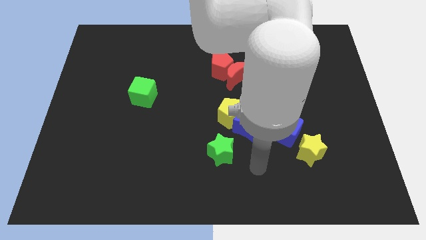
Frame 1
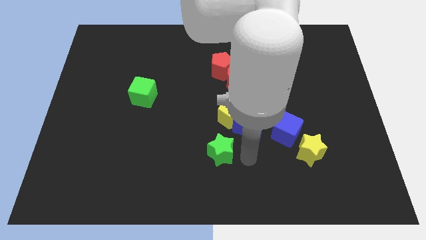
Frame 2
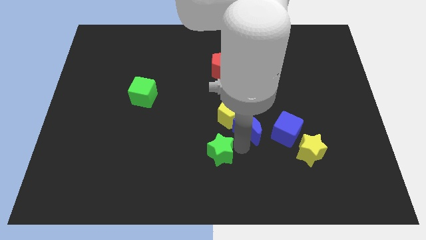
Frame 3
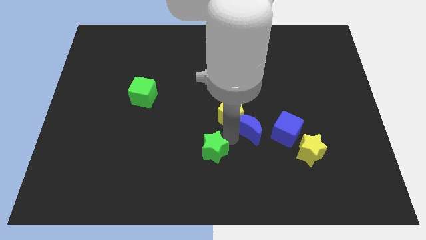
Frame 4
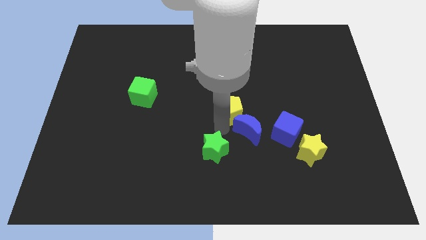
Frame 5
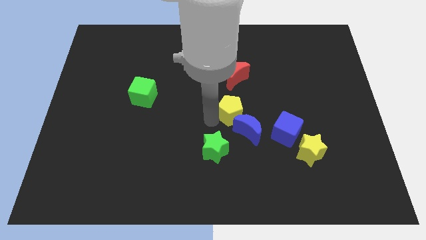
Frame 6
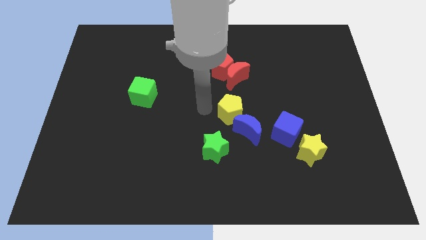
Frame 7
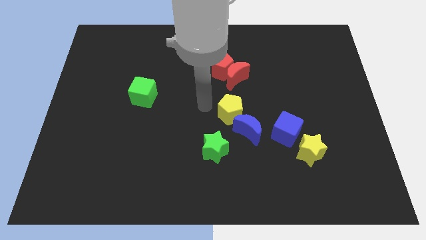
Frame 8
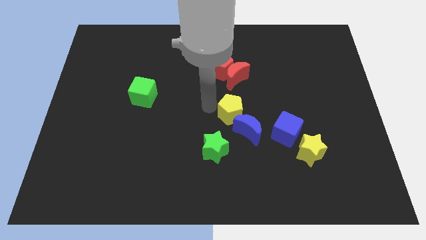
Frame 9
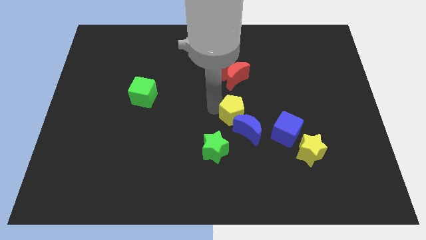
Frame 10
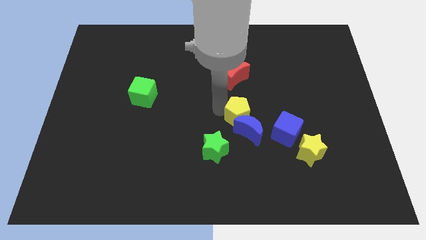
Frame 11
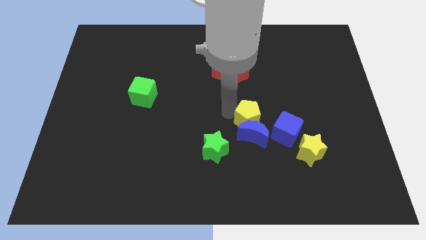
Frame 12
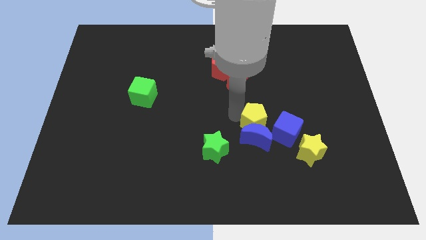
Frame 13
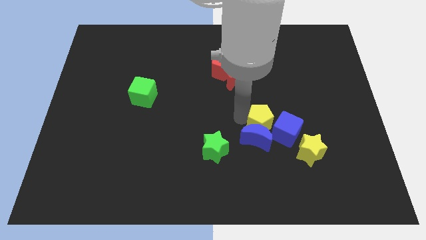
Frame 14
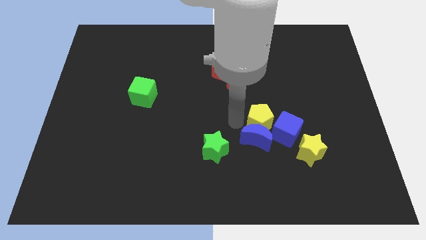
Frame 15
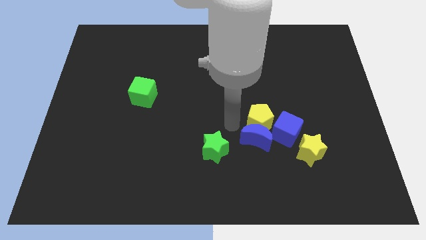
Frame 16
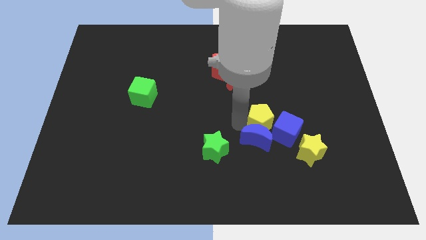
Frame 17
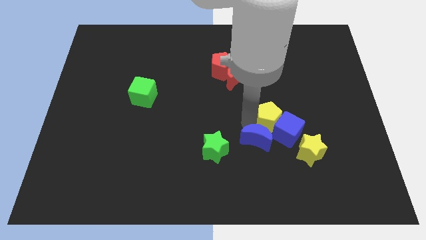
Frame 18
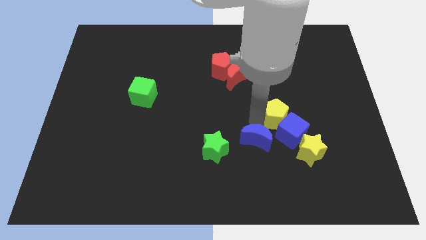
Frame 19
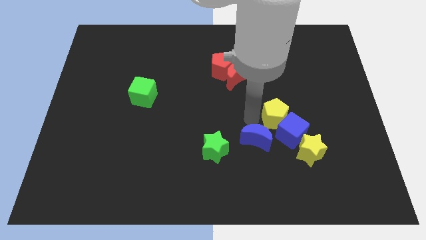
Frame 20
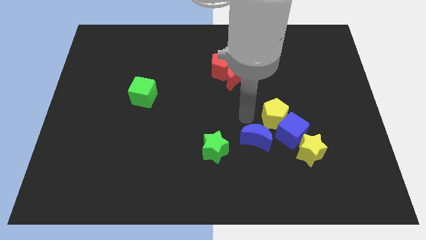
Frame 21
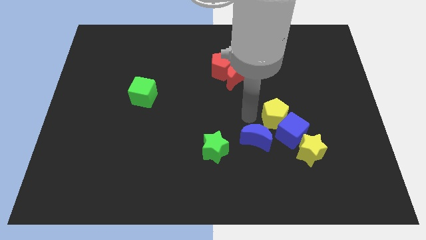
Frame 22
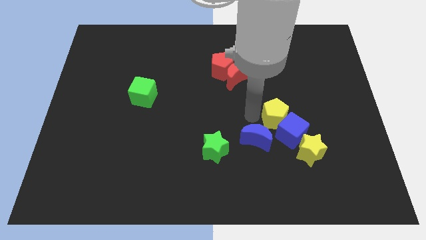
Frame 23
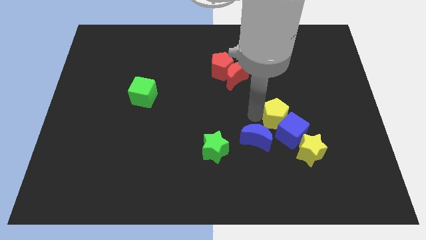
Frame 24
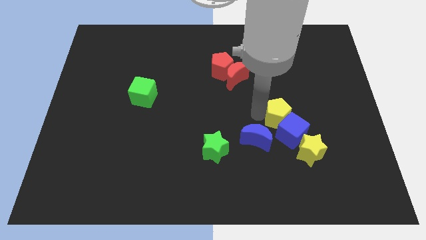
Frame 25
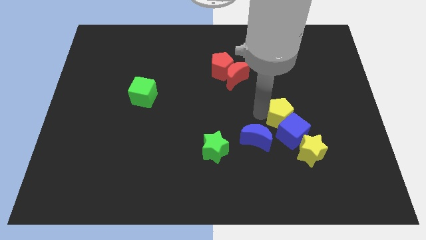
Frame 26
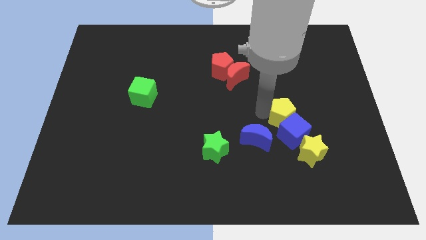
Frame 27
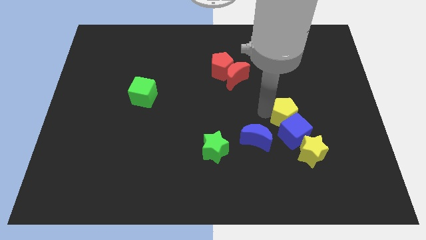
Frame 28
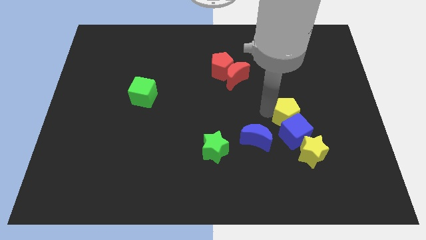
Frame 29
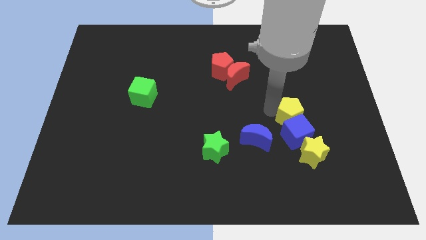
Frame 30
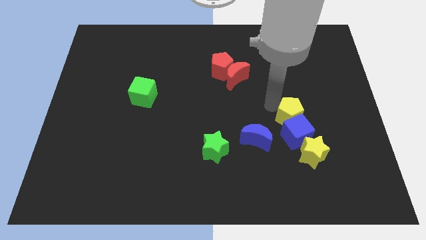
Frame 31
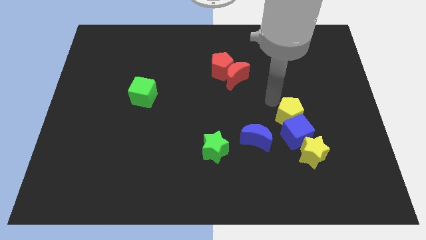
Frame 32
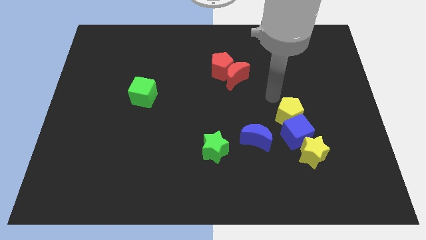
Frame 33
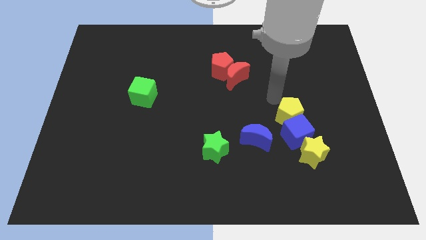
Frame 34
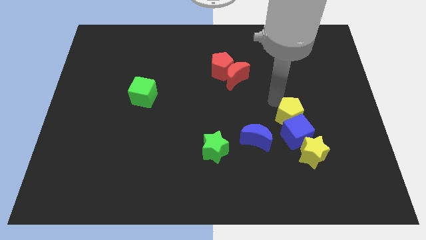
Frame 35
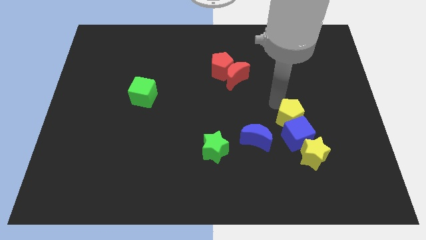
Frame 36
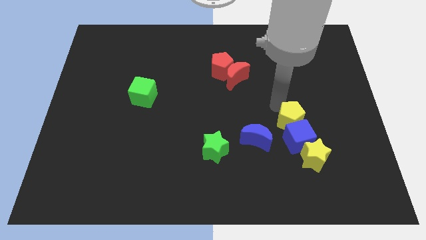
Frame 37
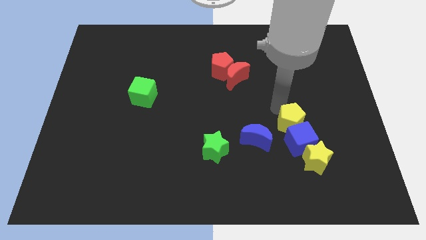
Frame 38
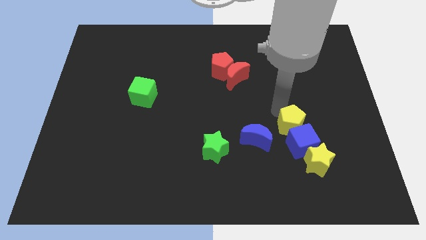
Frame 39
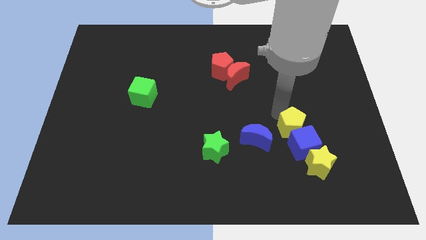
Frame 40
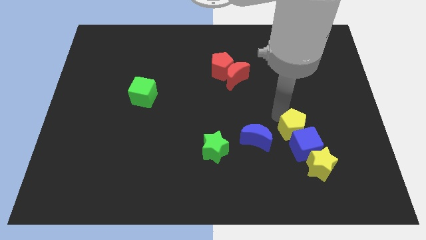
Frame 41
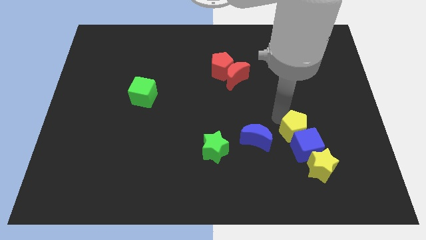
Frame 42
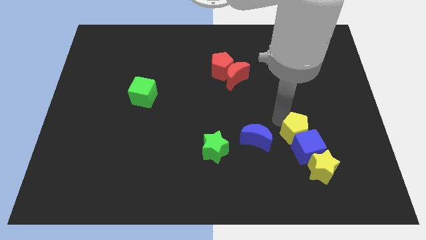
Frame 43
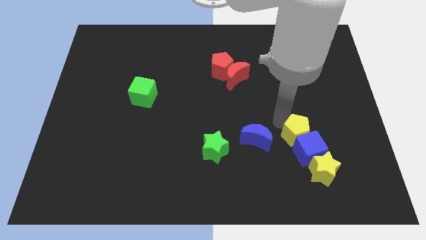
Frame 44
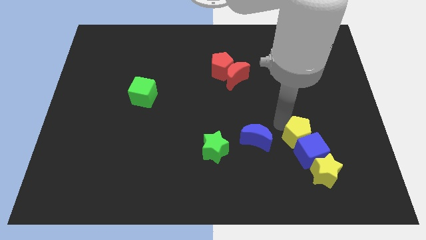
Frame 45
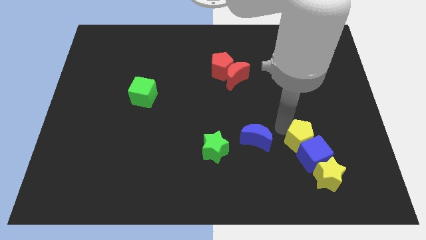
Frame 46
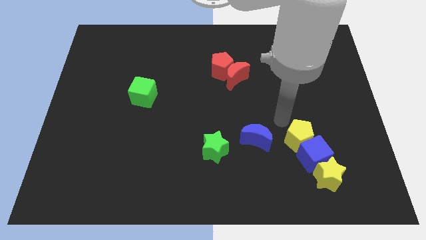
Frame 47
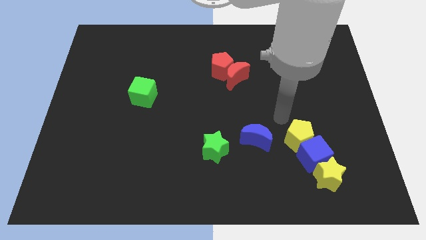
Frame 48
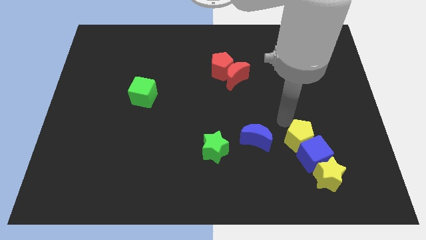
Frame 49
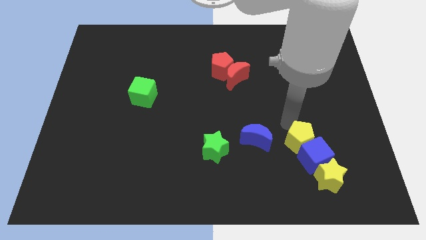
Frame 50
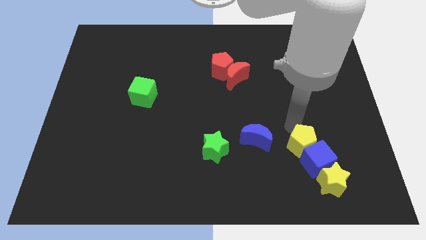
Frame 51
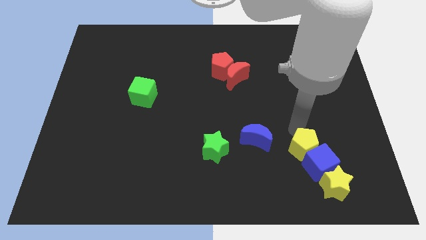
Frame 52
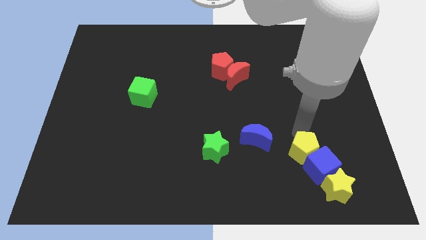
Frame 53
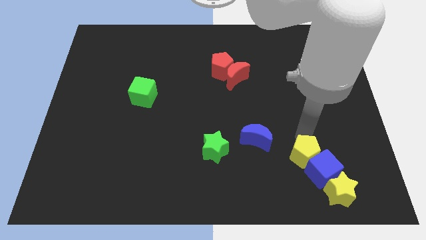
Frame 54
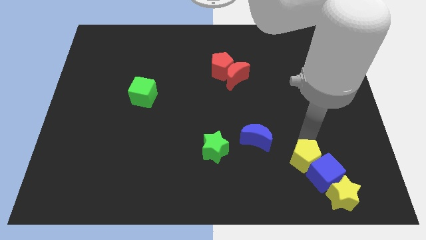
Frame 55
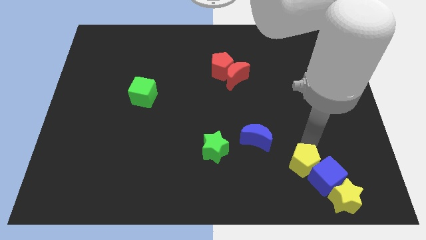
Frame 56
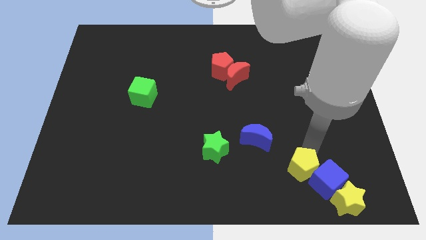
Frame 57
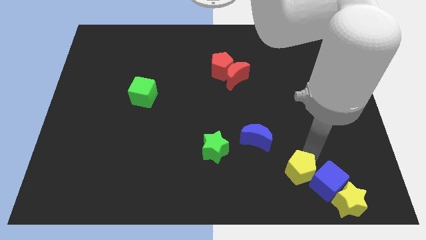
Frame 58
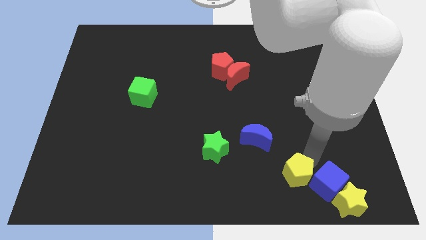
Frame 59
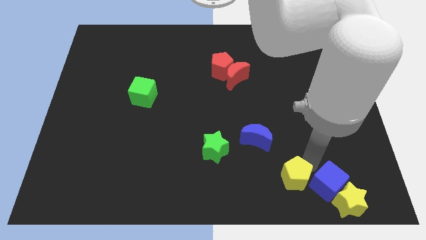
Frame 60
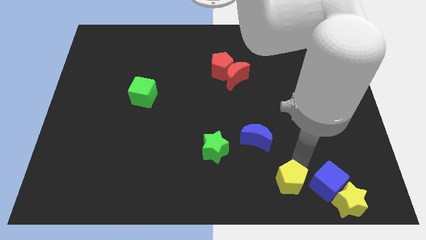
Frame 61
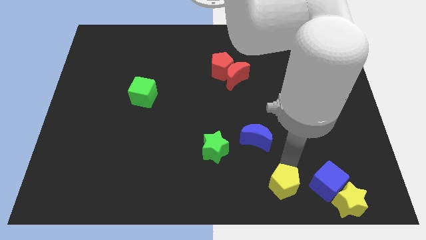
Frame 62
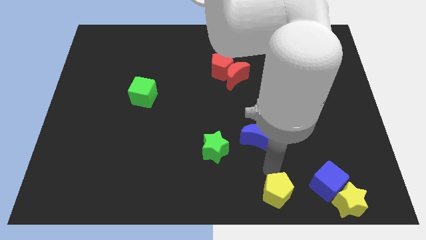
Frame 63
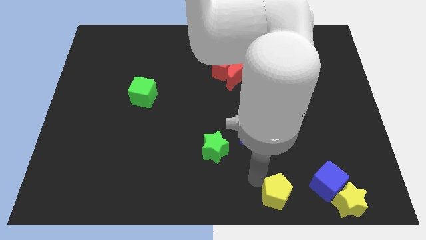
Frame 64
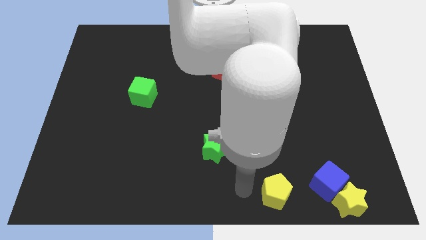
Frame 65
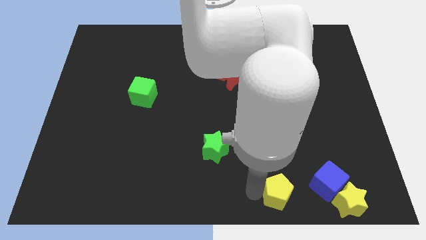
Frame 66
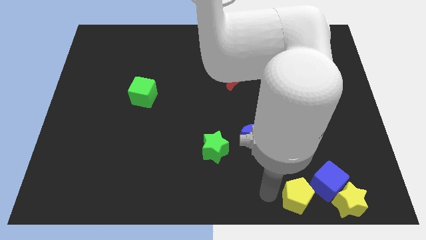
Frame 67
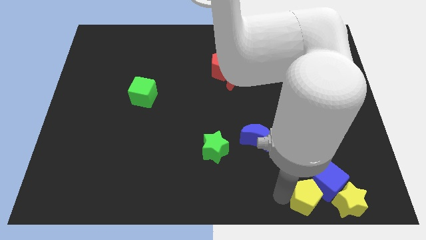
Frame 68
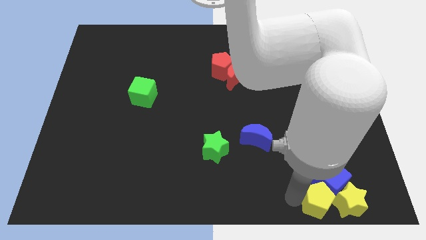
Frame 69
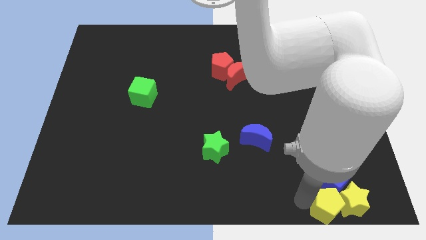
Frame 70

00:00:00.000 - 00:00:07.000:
put the yellow pentagon to the yellow star

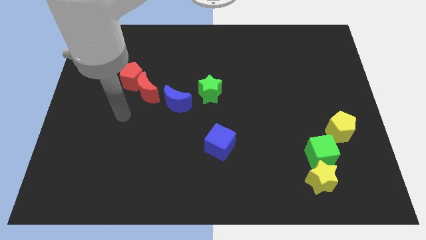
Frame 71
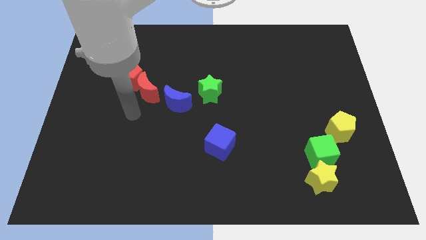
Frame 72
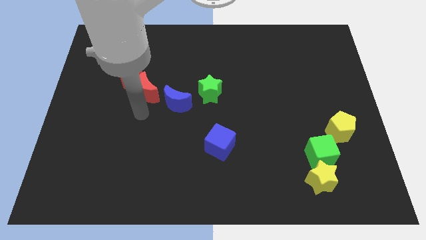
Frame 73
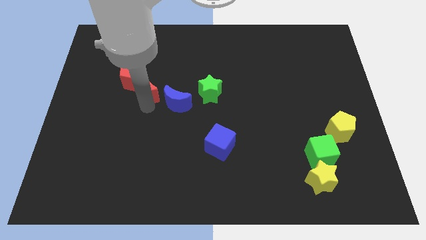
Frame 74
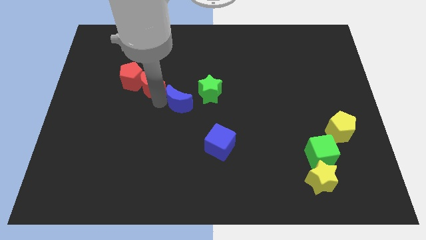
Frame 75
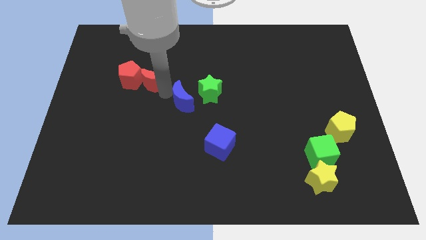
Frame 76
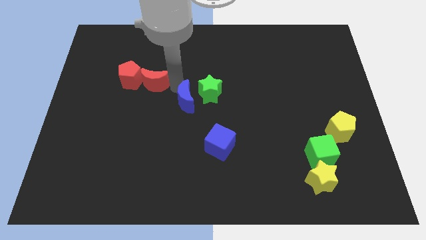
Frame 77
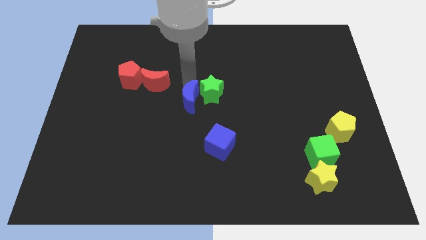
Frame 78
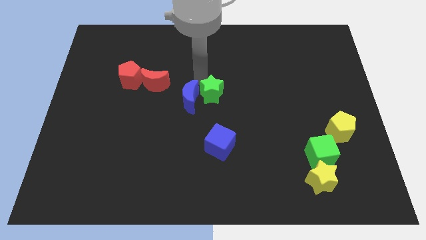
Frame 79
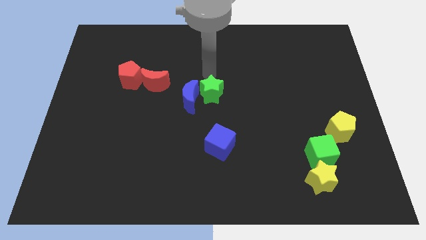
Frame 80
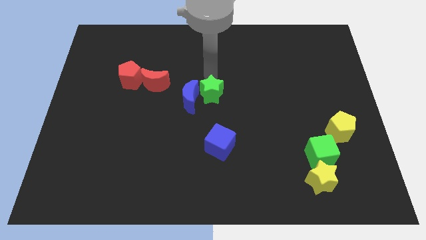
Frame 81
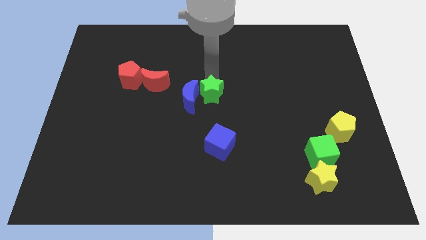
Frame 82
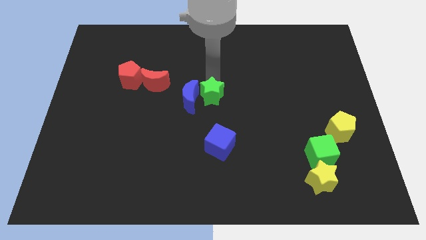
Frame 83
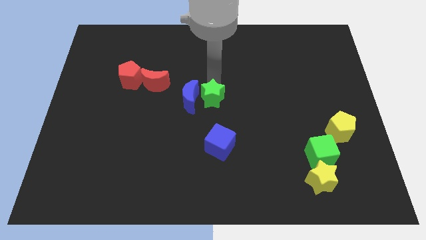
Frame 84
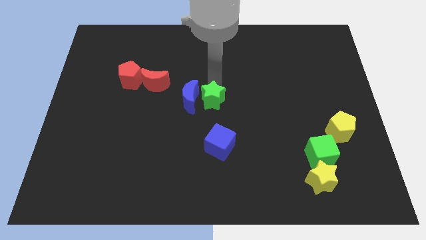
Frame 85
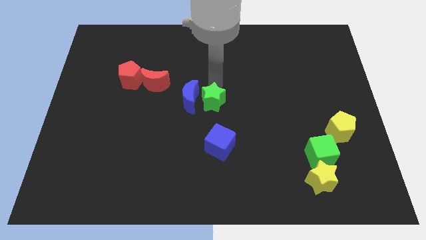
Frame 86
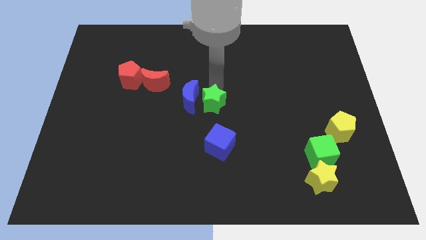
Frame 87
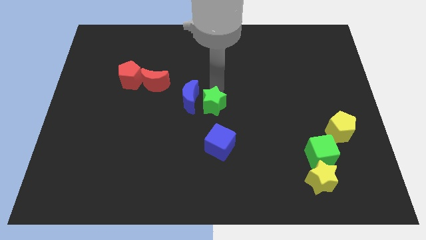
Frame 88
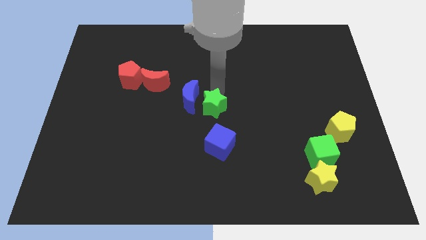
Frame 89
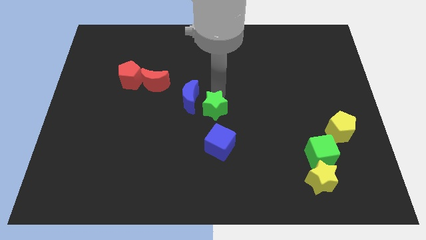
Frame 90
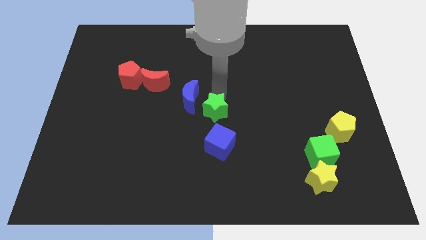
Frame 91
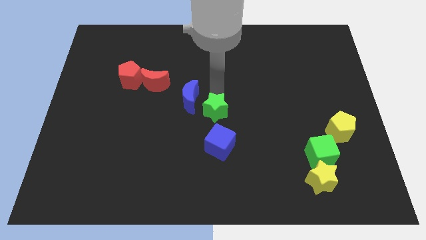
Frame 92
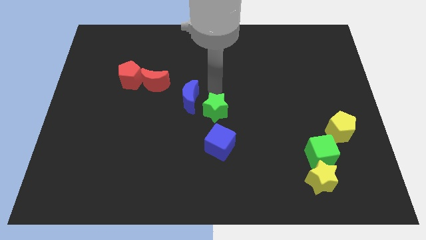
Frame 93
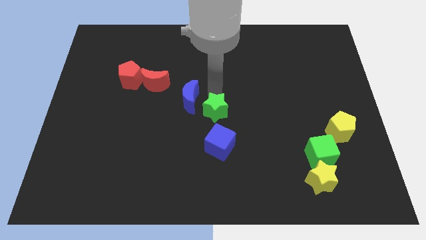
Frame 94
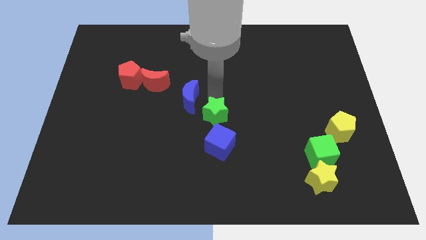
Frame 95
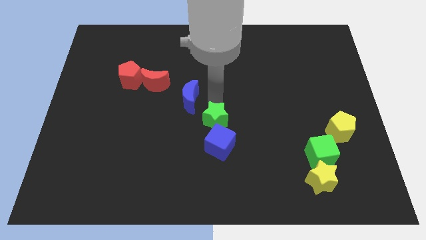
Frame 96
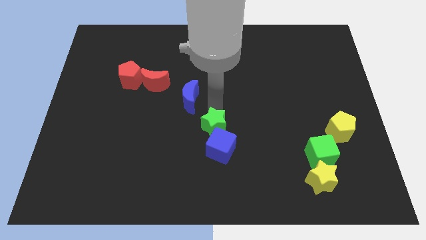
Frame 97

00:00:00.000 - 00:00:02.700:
move the green star towards the blue cube
